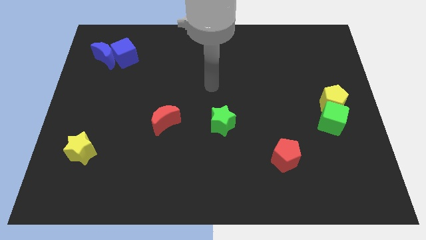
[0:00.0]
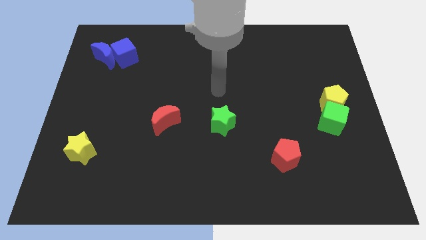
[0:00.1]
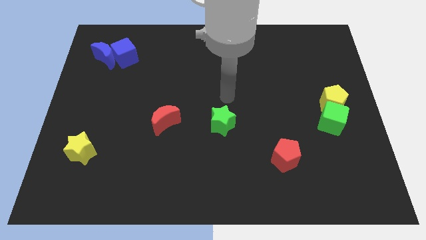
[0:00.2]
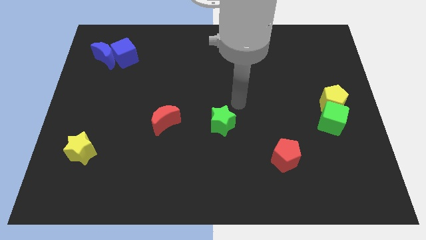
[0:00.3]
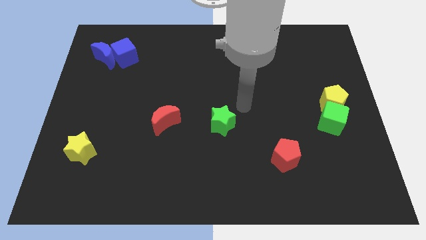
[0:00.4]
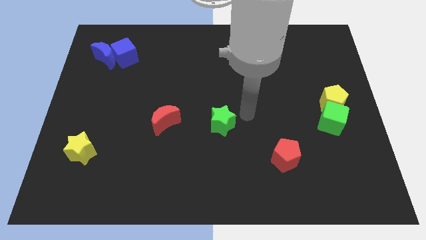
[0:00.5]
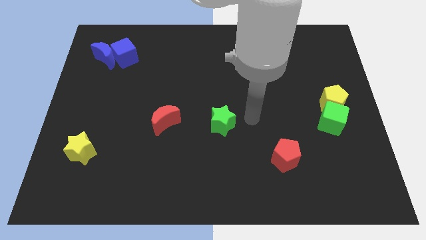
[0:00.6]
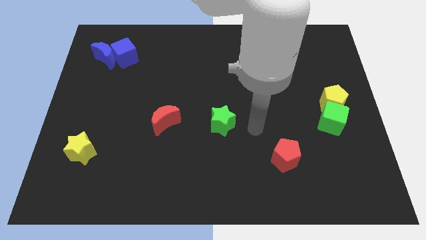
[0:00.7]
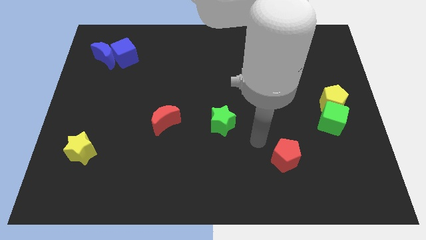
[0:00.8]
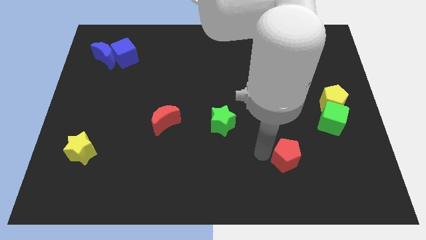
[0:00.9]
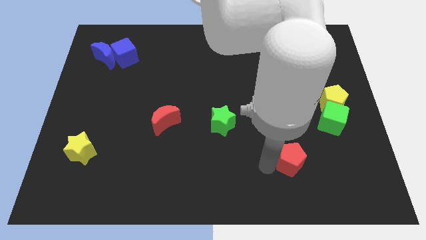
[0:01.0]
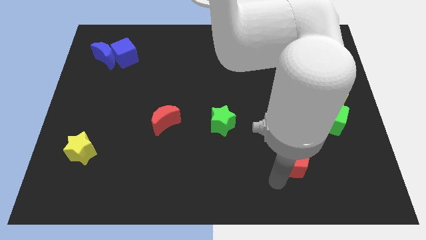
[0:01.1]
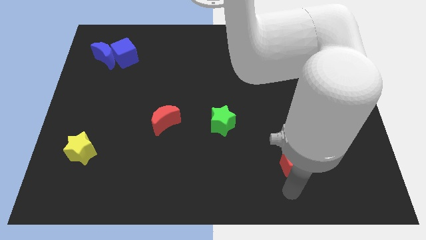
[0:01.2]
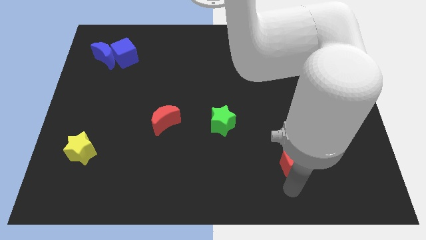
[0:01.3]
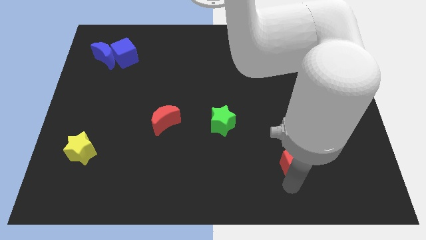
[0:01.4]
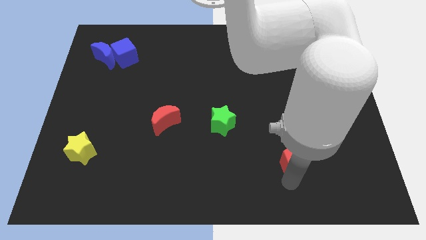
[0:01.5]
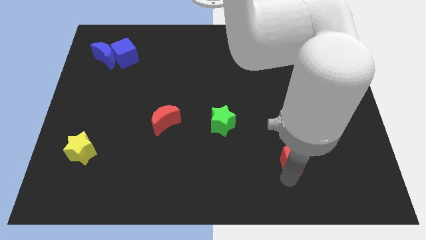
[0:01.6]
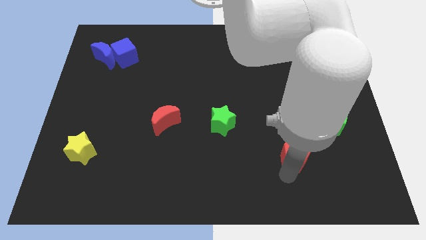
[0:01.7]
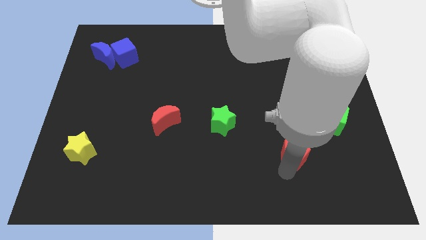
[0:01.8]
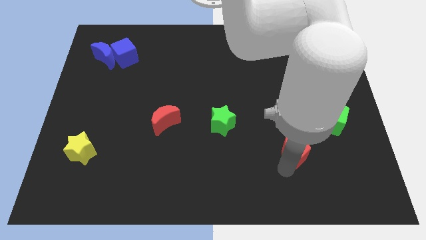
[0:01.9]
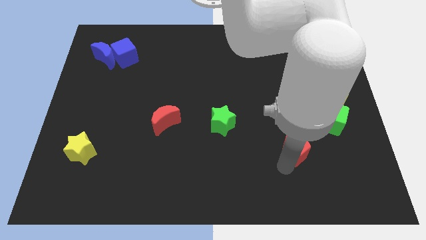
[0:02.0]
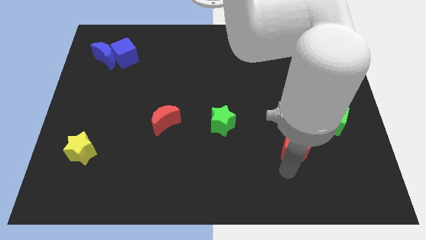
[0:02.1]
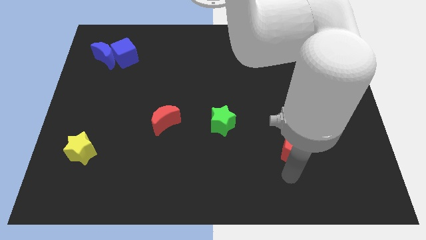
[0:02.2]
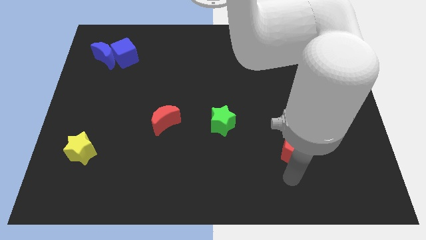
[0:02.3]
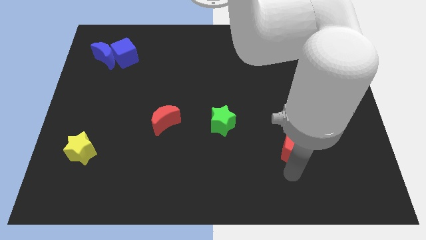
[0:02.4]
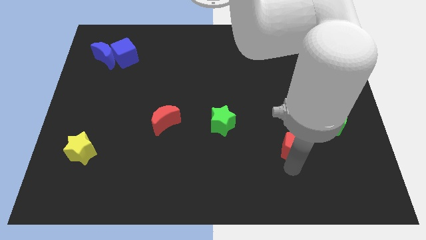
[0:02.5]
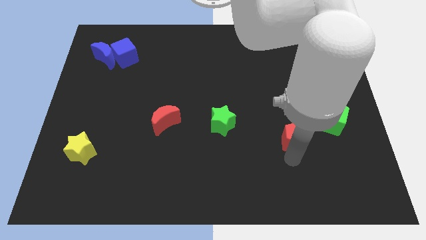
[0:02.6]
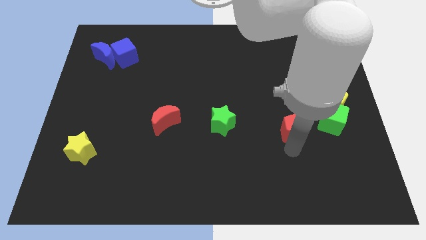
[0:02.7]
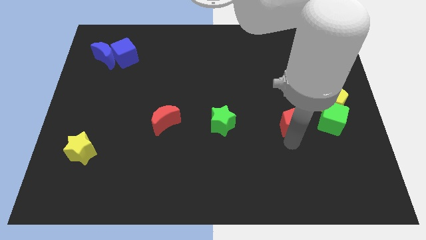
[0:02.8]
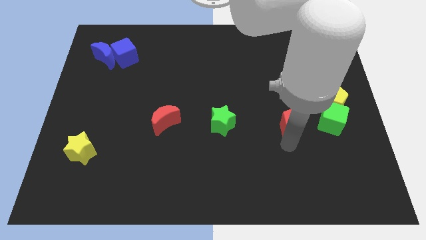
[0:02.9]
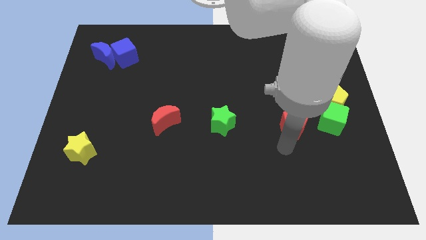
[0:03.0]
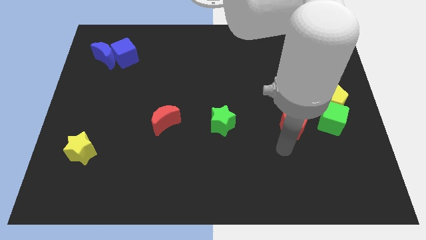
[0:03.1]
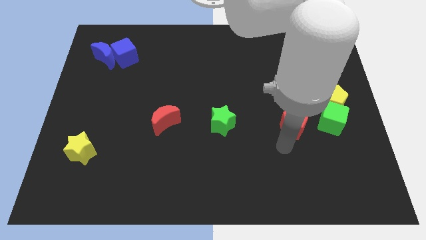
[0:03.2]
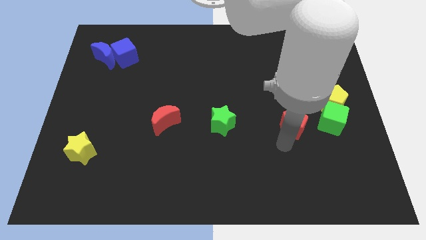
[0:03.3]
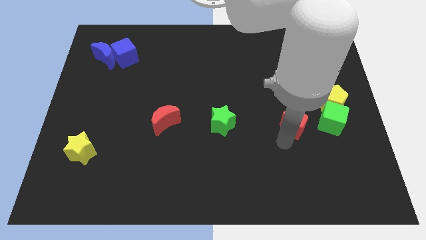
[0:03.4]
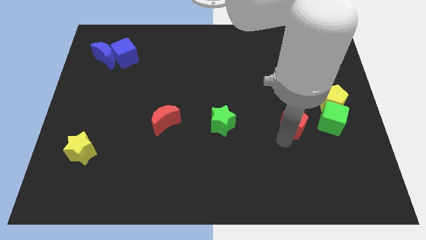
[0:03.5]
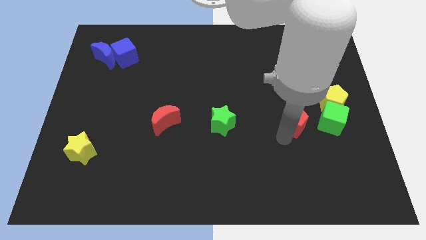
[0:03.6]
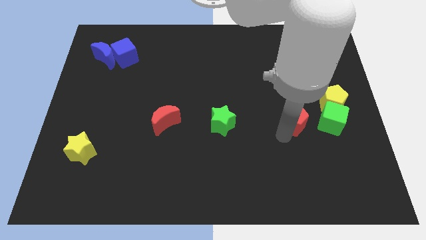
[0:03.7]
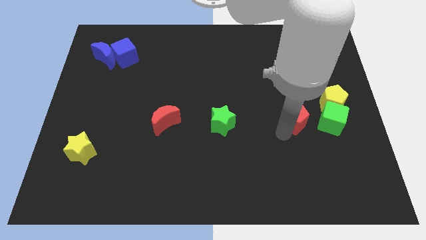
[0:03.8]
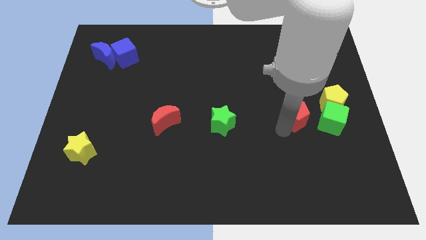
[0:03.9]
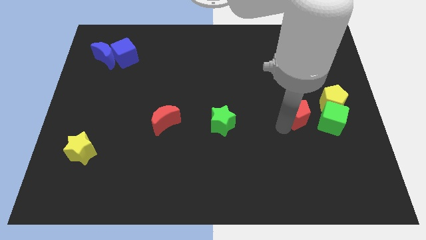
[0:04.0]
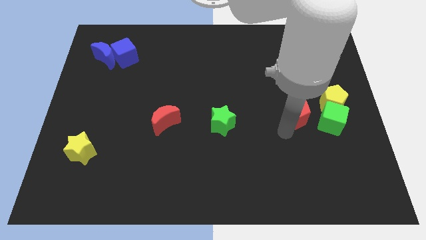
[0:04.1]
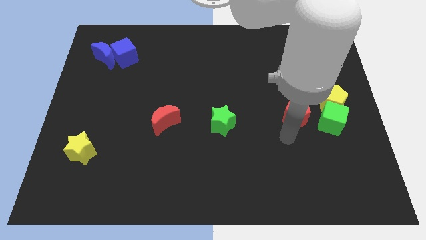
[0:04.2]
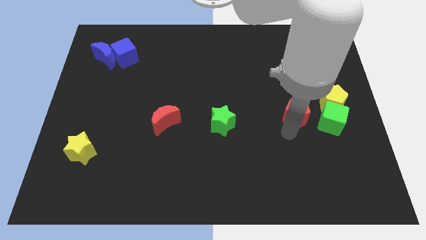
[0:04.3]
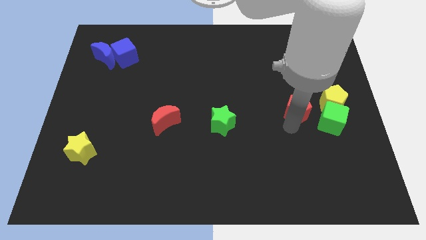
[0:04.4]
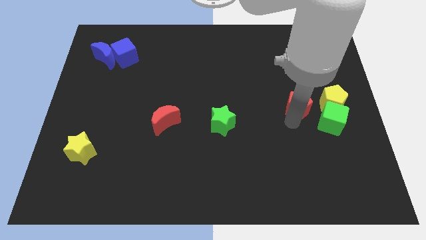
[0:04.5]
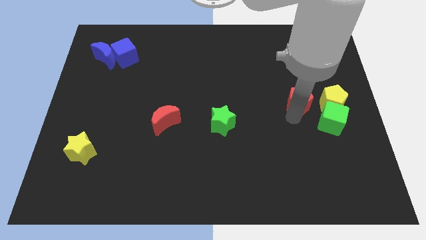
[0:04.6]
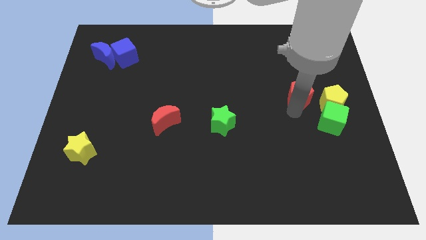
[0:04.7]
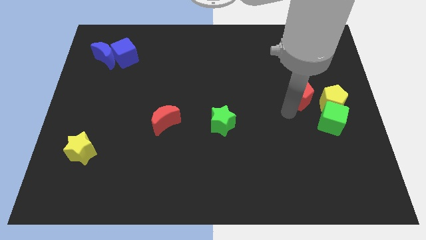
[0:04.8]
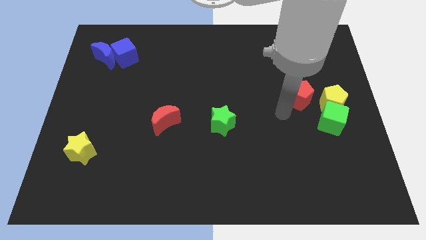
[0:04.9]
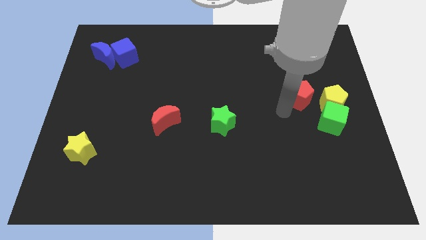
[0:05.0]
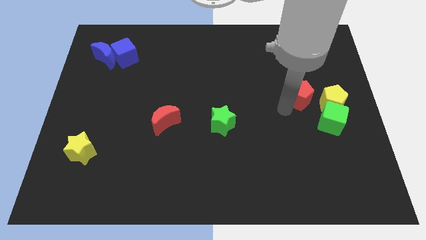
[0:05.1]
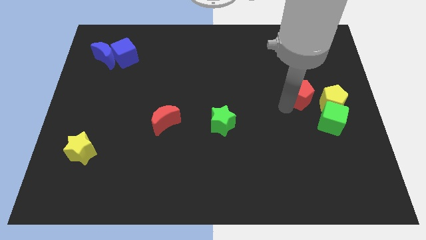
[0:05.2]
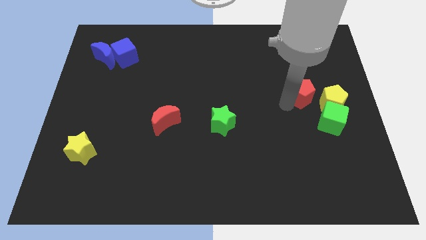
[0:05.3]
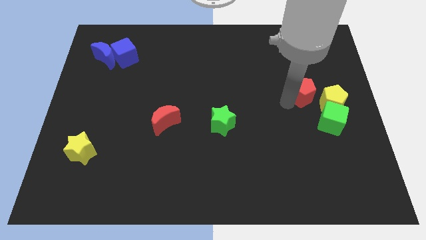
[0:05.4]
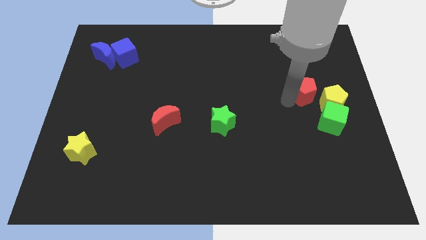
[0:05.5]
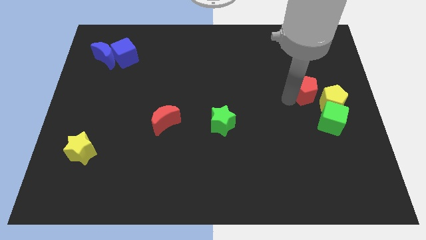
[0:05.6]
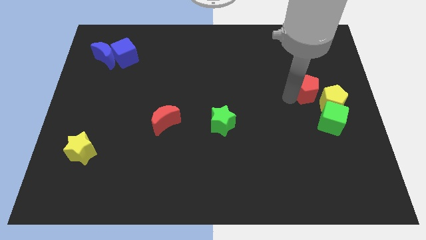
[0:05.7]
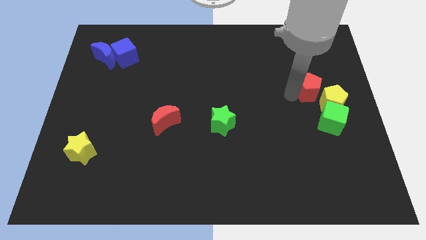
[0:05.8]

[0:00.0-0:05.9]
push the red pentagon above the yellow pentagon

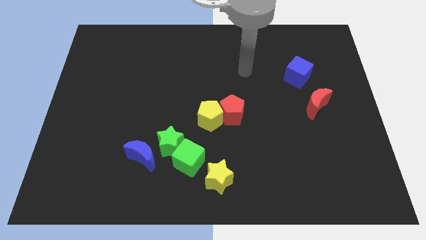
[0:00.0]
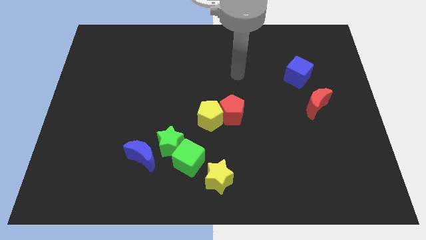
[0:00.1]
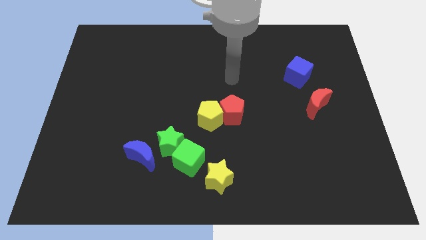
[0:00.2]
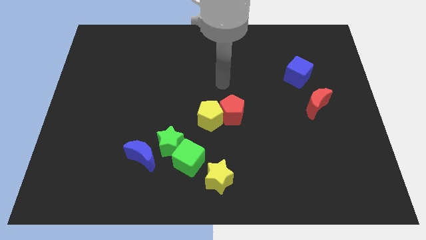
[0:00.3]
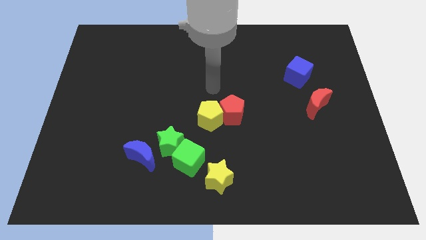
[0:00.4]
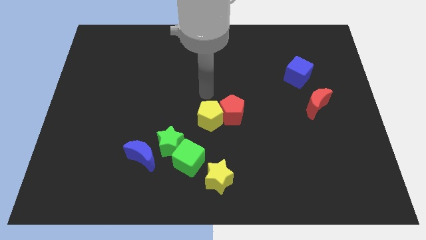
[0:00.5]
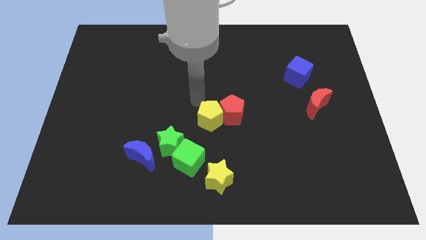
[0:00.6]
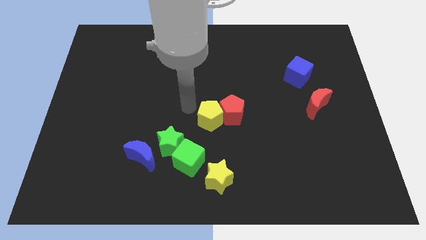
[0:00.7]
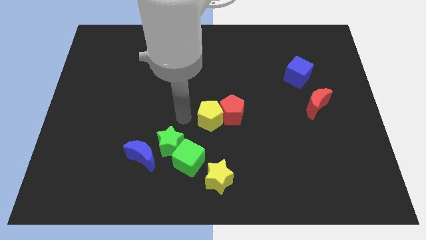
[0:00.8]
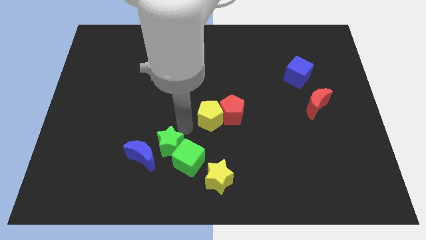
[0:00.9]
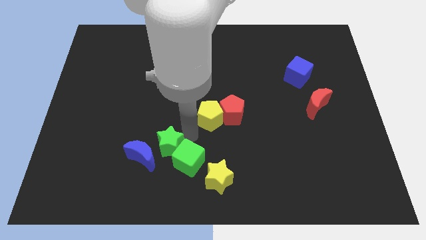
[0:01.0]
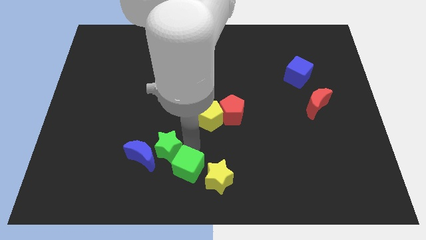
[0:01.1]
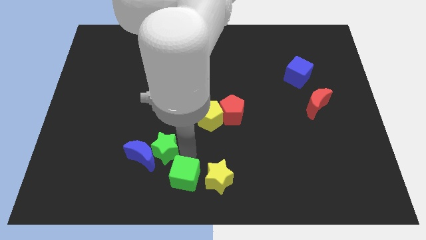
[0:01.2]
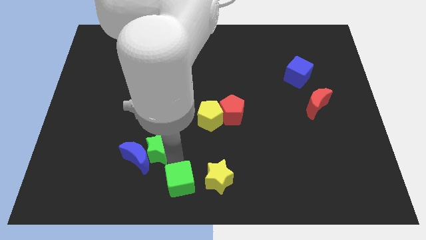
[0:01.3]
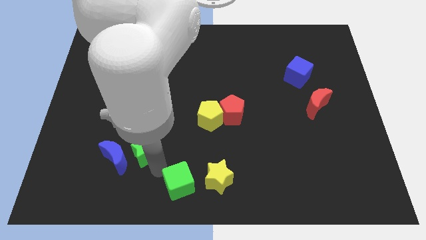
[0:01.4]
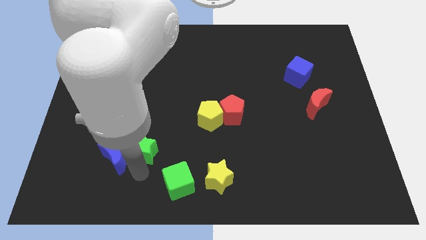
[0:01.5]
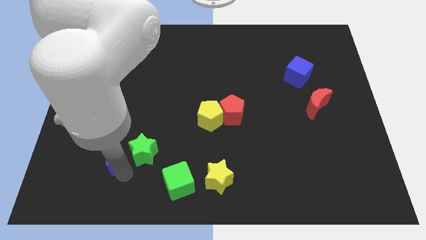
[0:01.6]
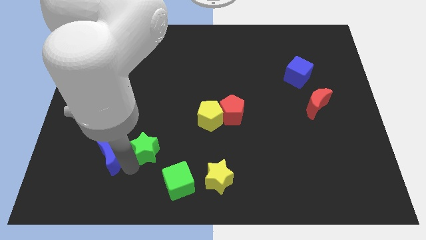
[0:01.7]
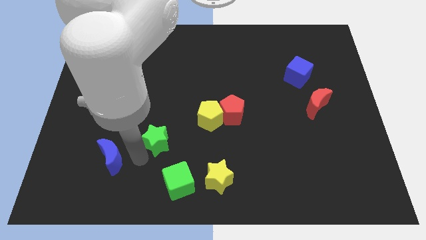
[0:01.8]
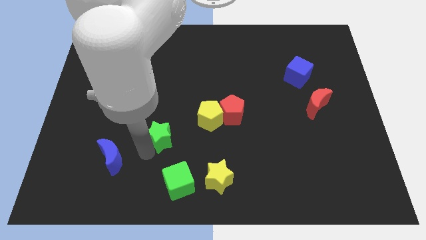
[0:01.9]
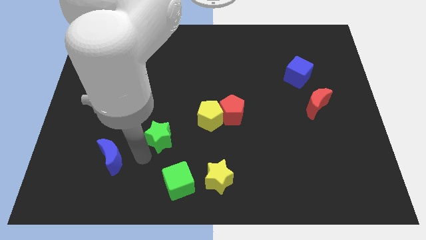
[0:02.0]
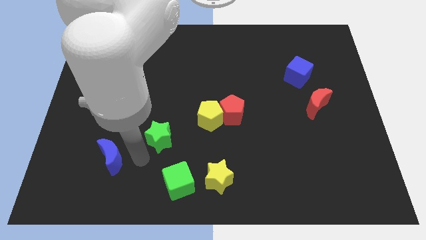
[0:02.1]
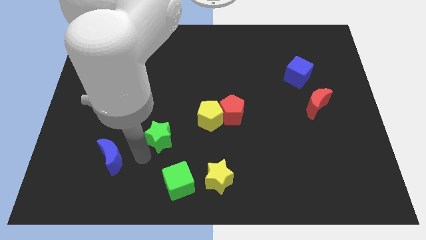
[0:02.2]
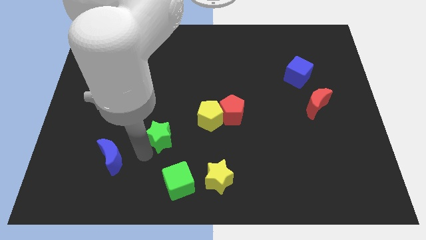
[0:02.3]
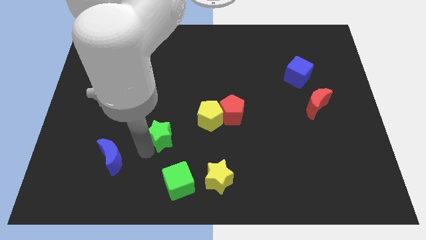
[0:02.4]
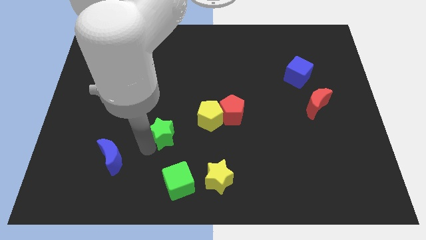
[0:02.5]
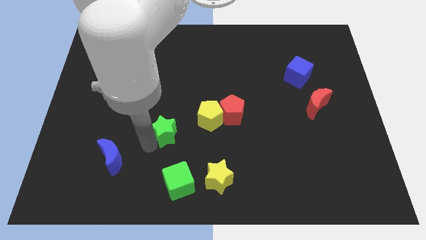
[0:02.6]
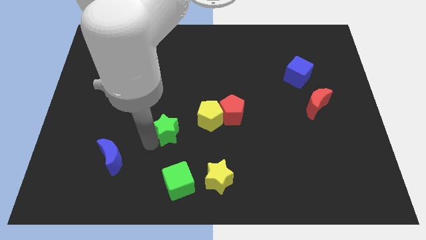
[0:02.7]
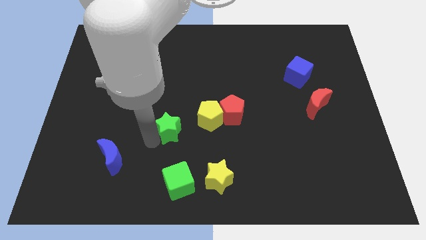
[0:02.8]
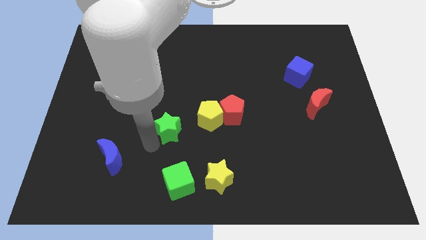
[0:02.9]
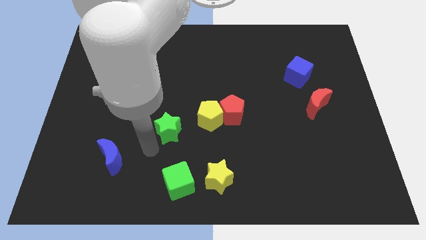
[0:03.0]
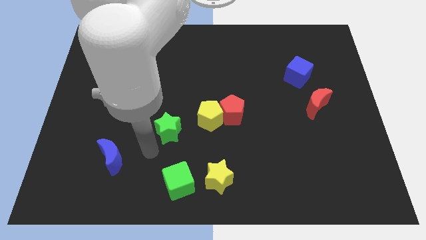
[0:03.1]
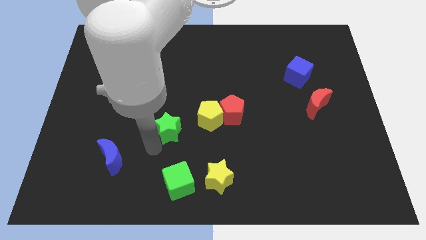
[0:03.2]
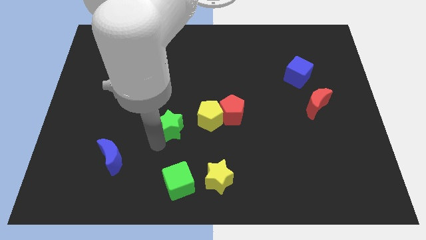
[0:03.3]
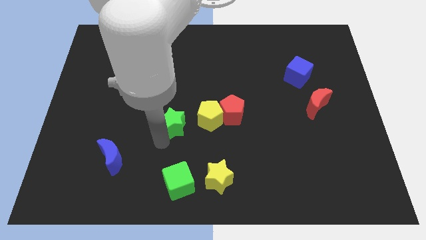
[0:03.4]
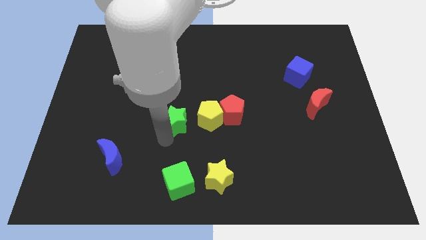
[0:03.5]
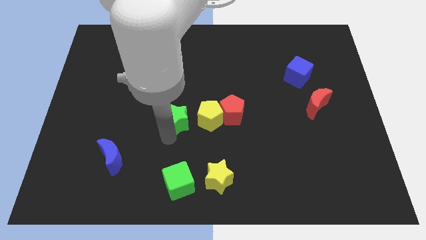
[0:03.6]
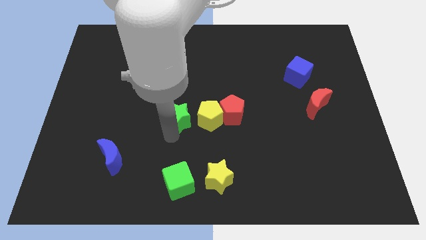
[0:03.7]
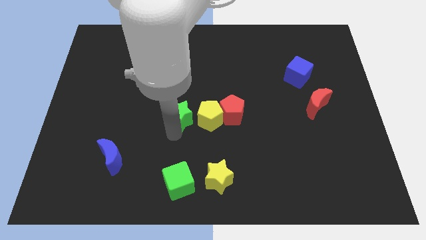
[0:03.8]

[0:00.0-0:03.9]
put the green star diagonally up and to the left of the yellow pentagon
